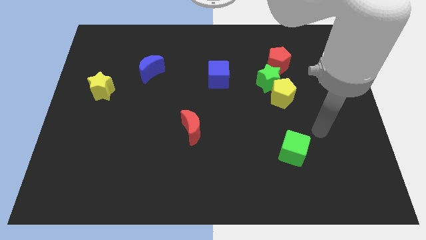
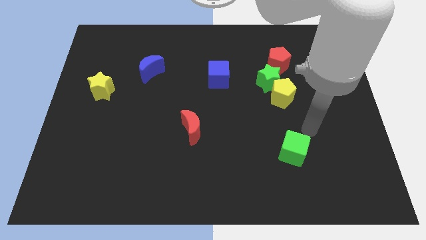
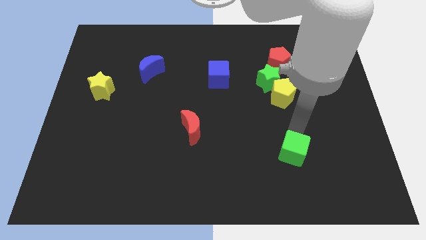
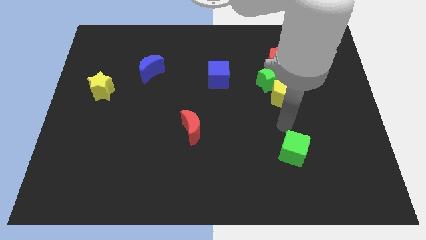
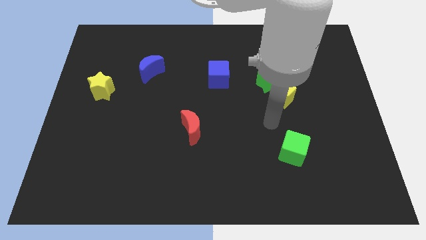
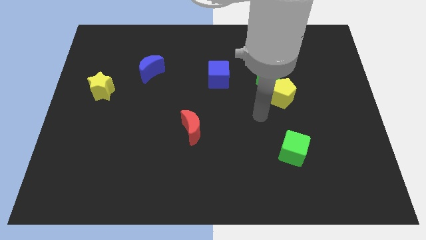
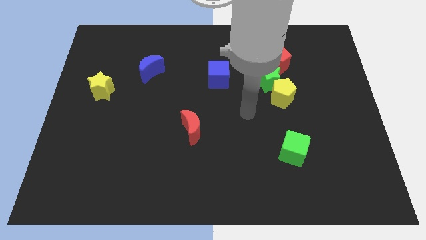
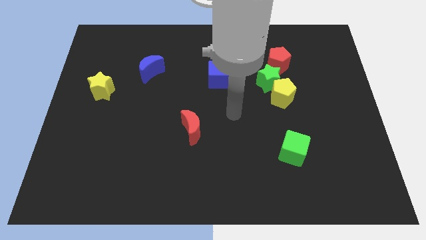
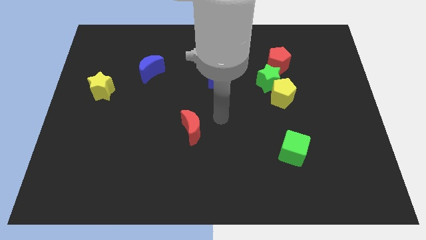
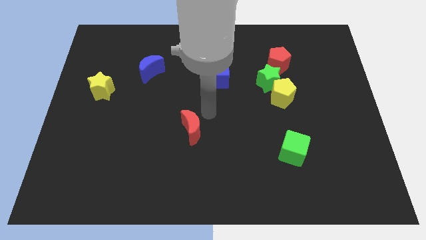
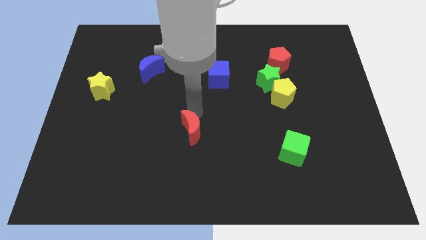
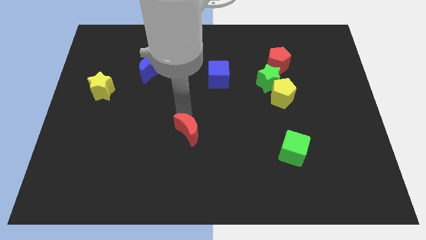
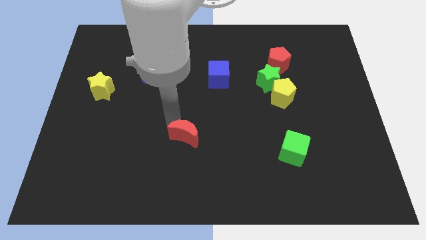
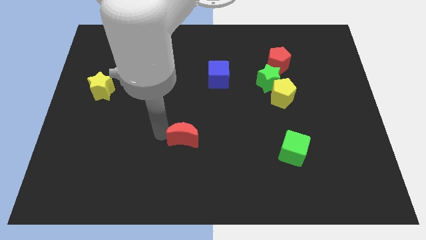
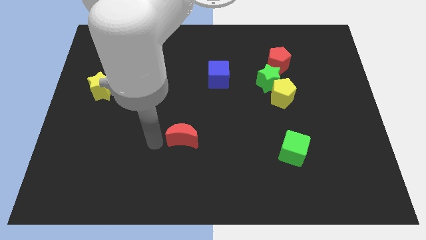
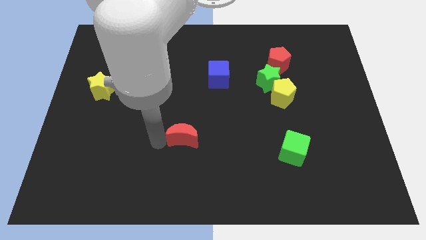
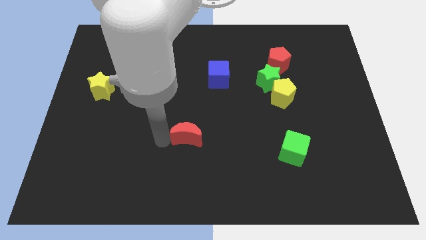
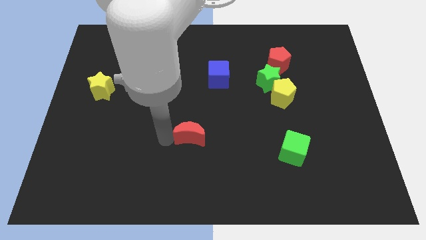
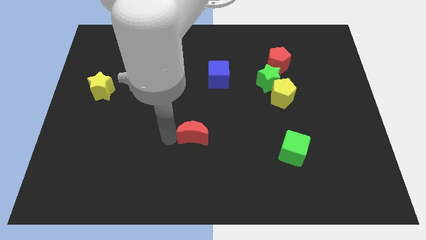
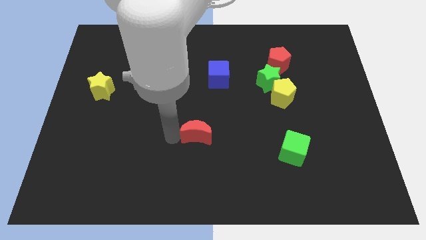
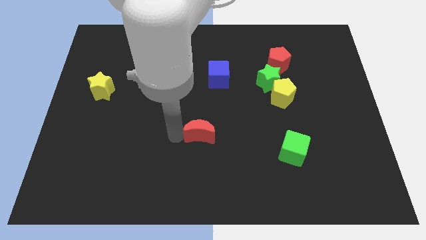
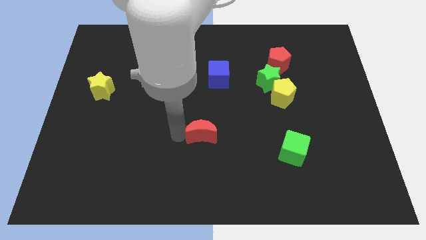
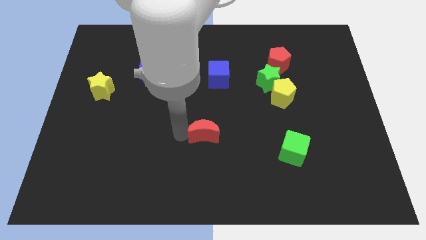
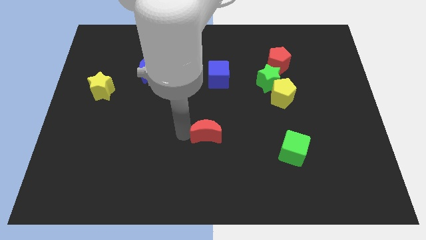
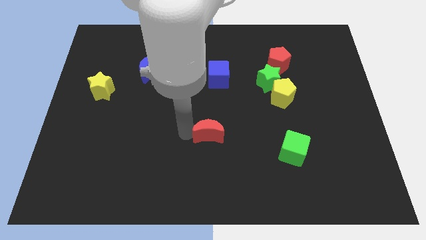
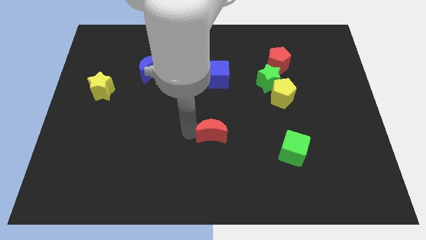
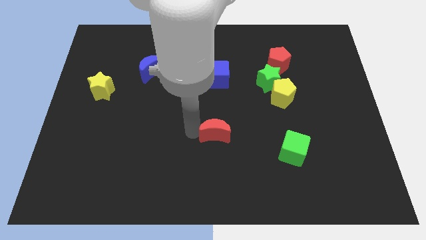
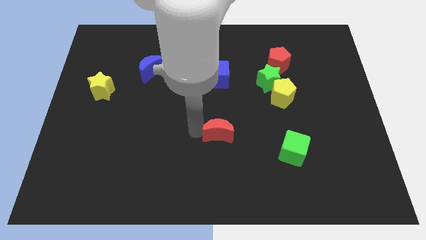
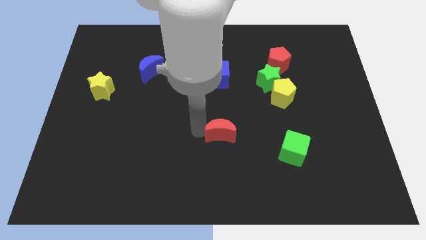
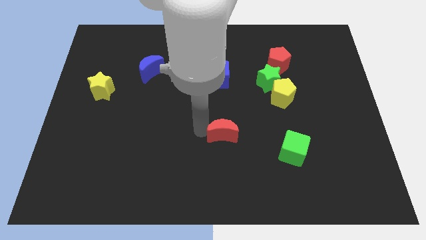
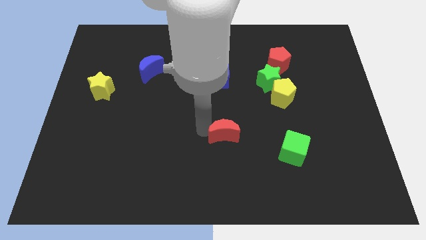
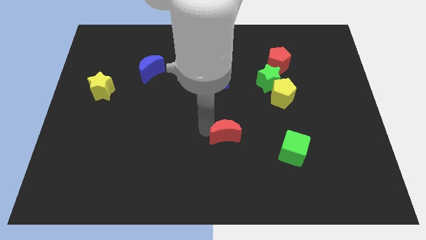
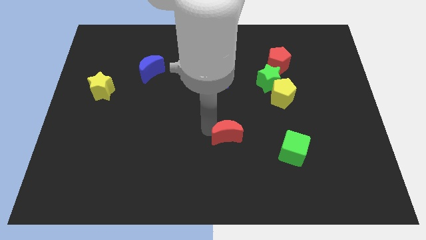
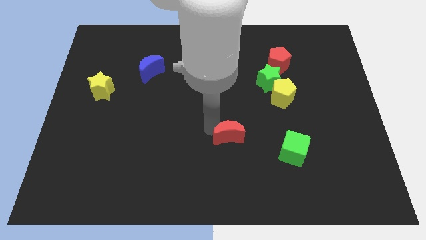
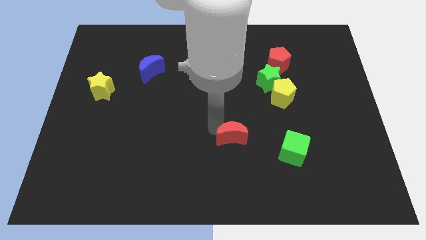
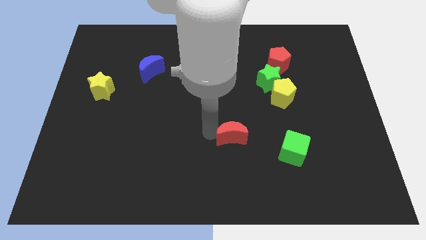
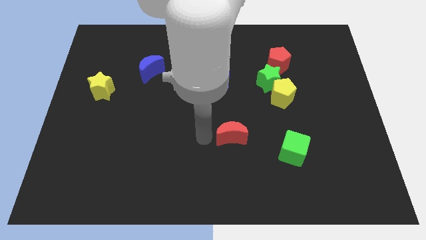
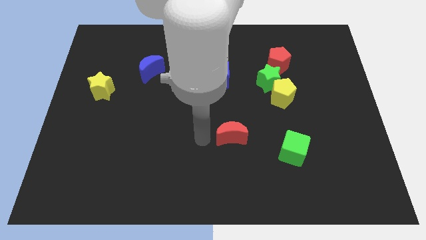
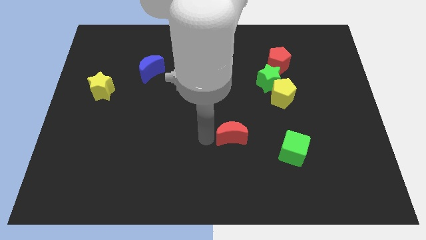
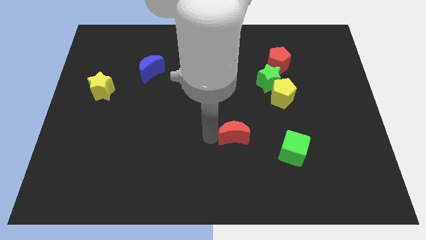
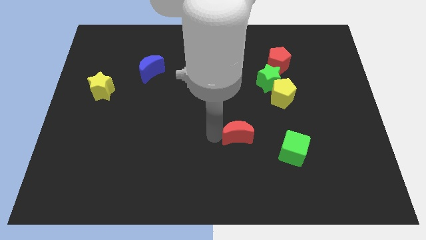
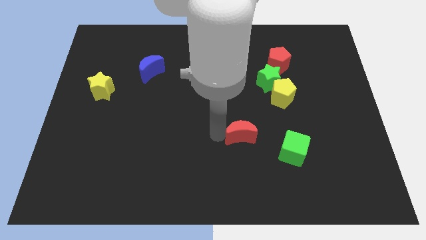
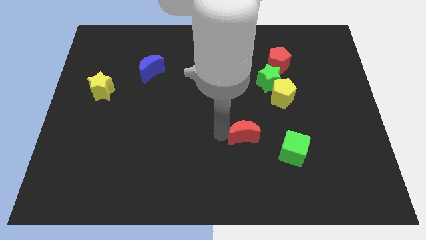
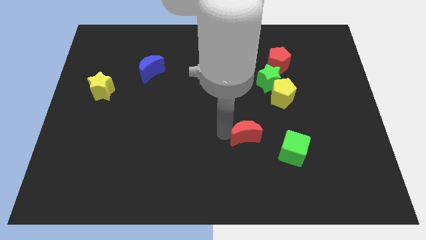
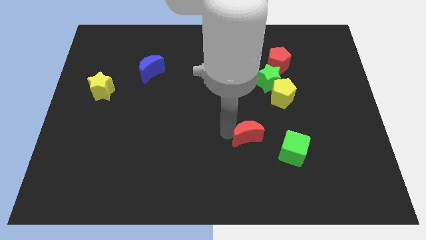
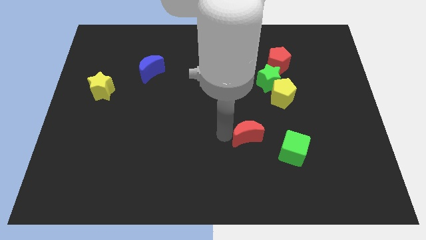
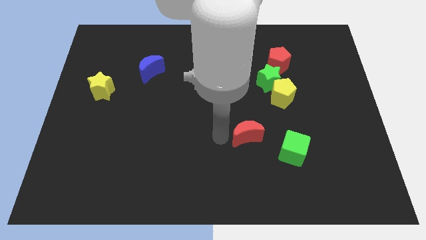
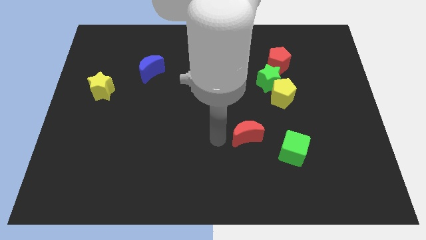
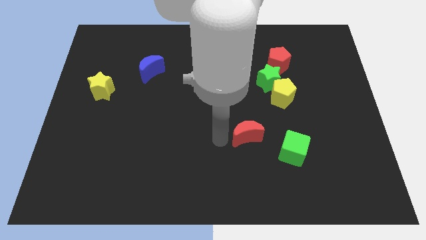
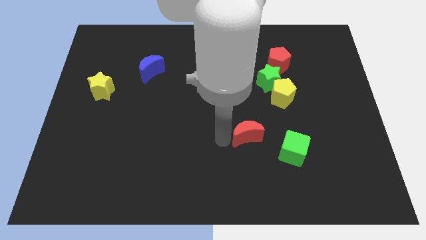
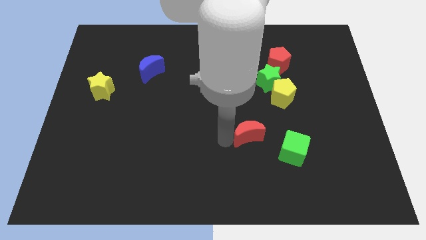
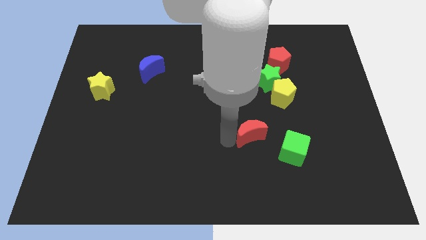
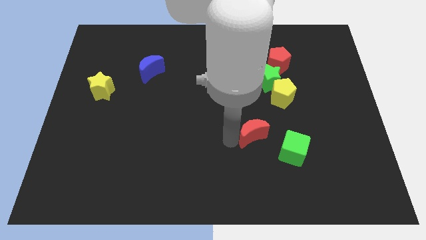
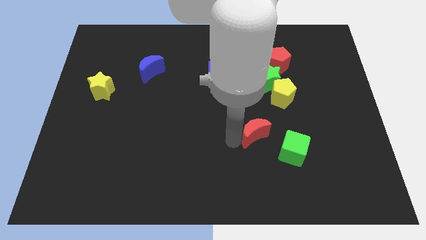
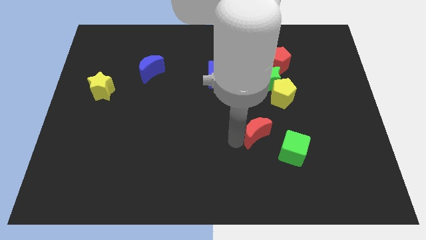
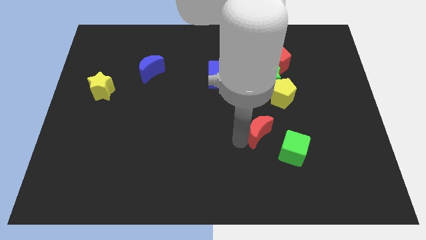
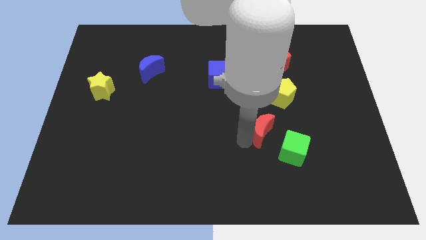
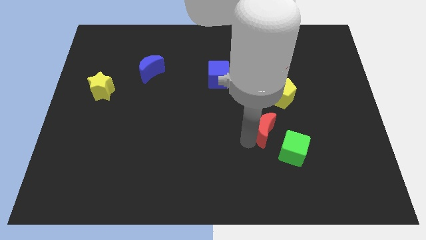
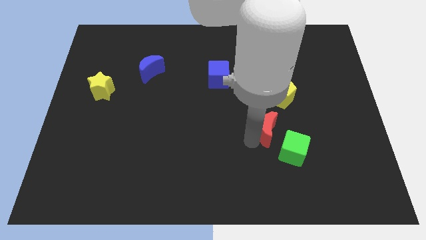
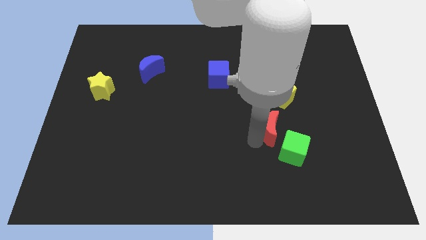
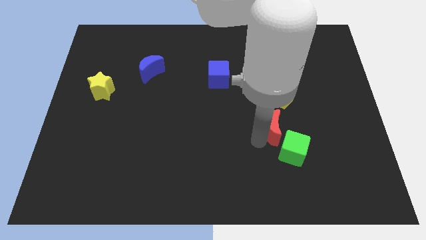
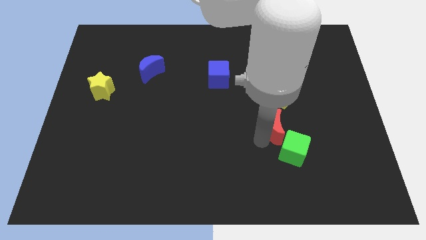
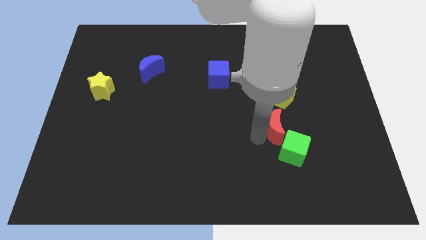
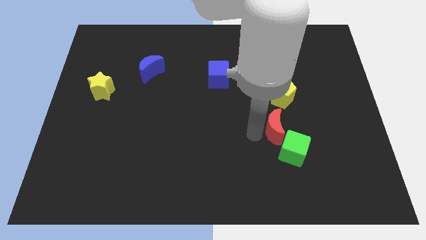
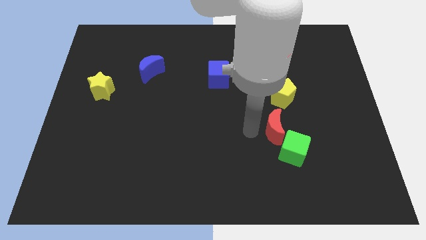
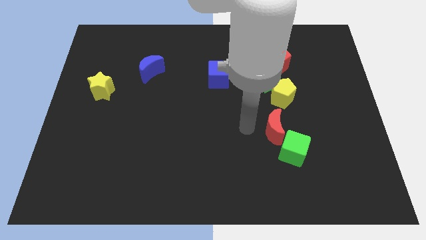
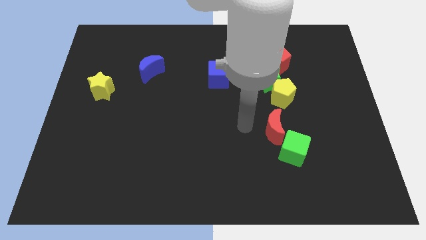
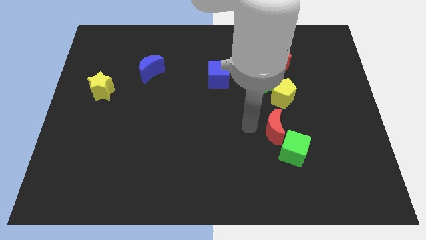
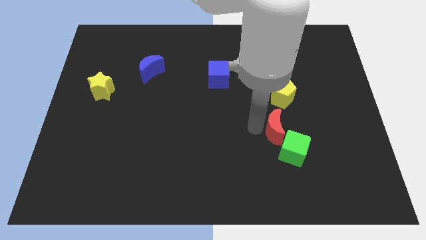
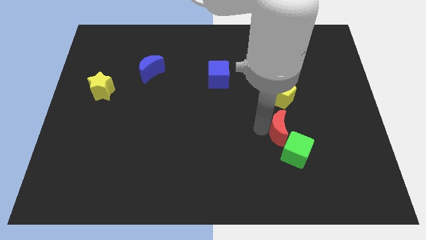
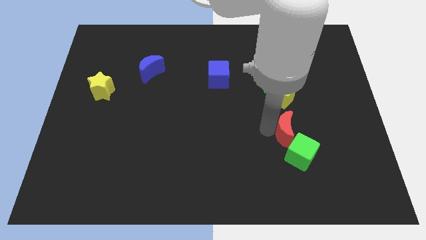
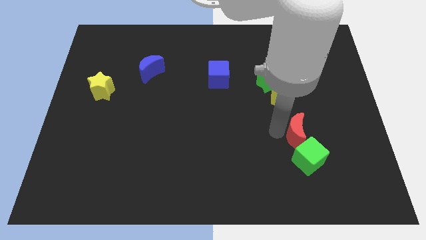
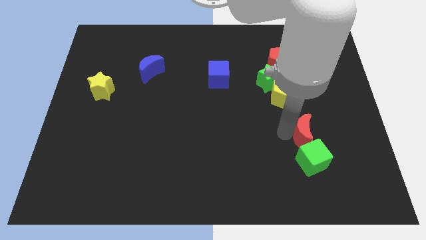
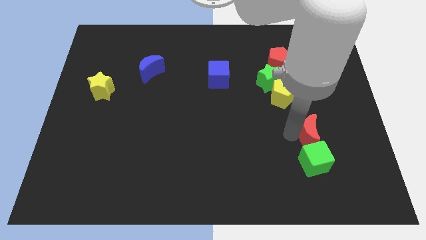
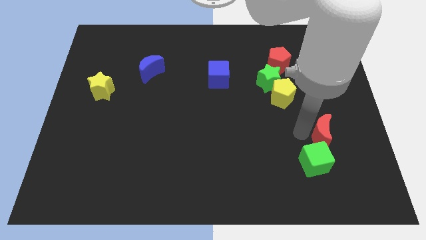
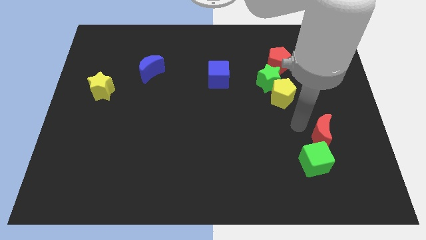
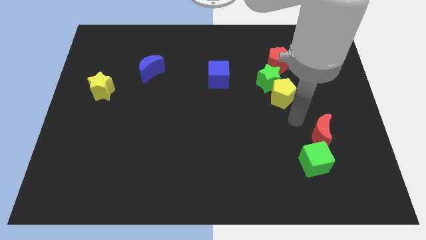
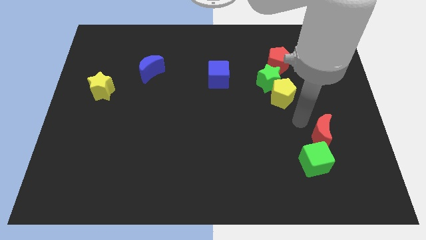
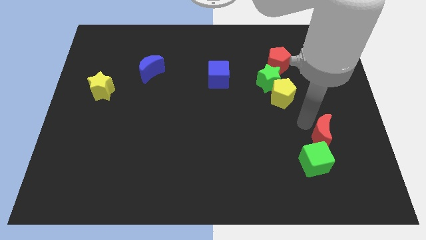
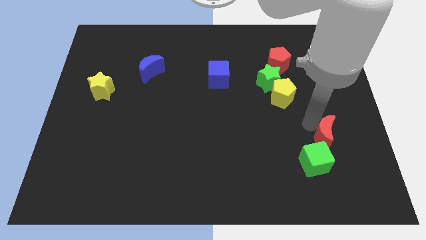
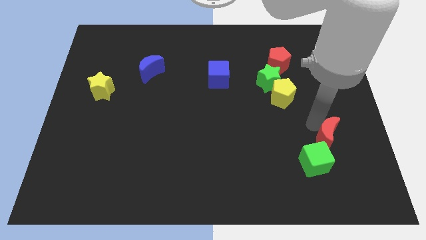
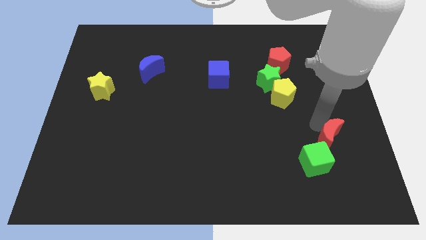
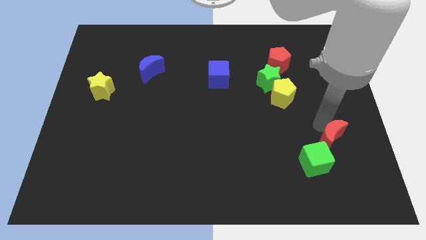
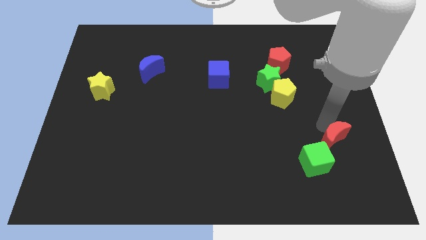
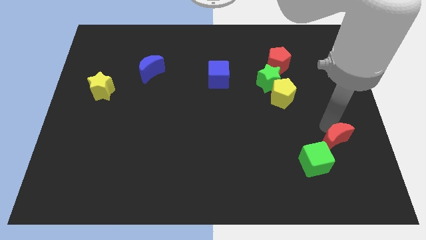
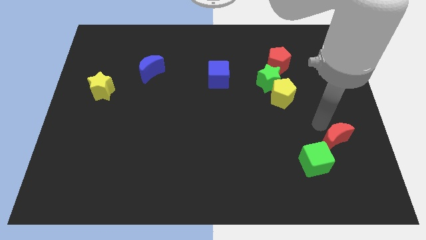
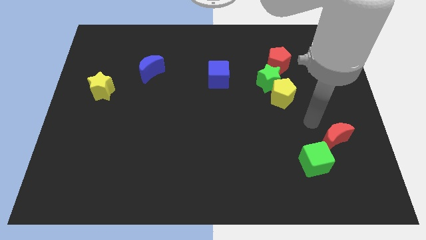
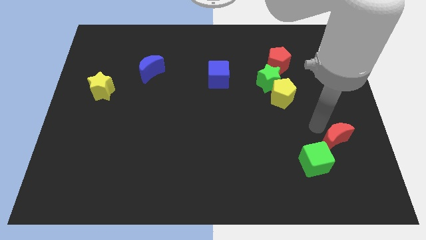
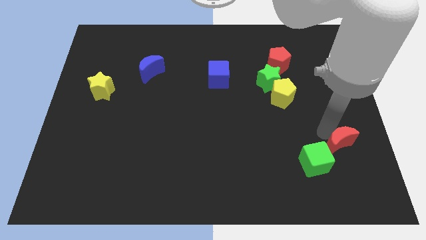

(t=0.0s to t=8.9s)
push the red moon to the right side of the green cube
